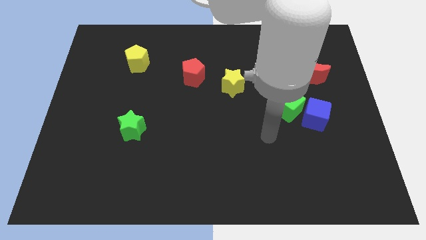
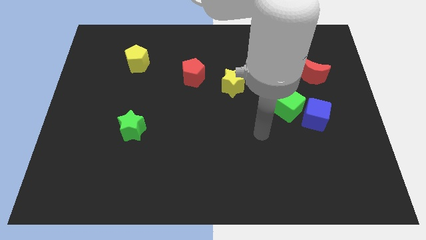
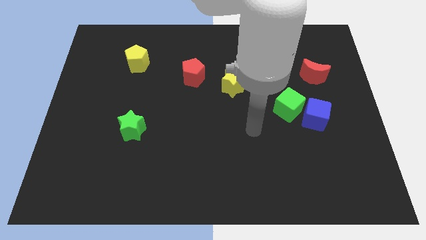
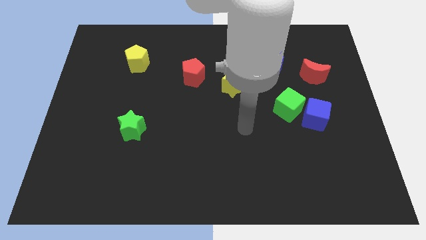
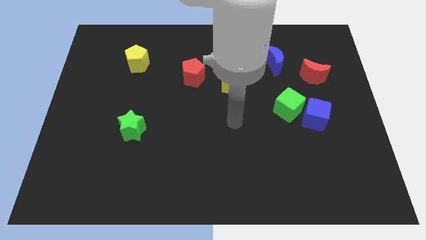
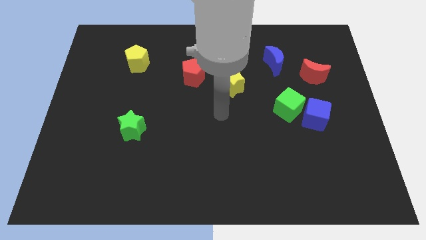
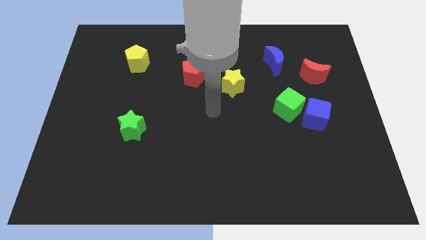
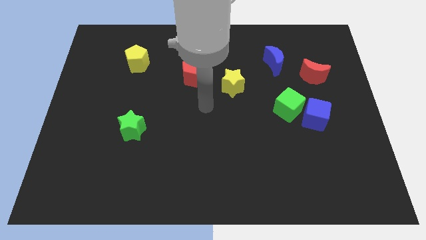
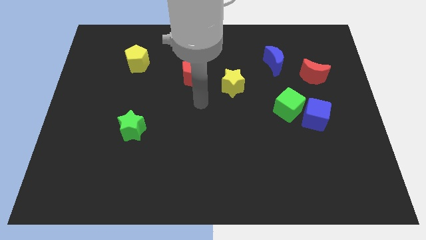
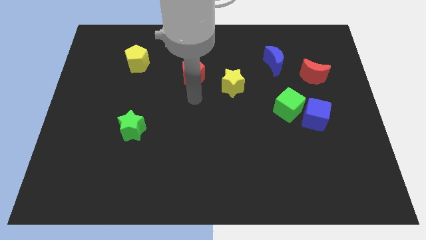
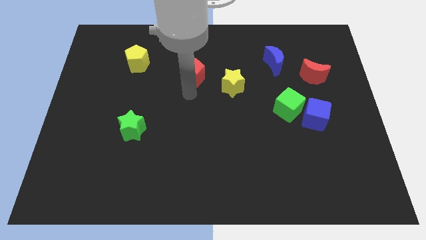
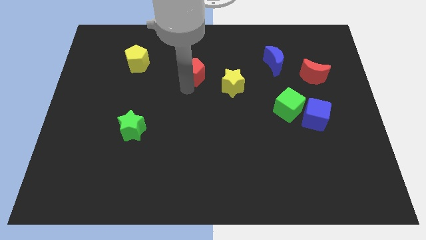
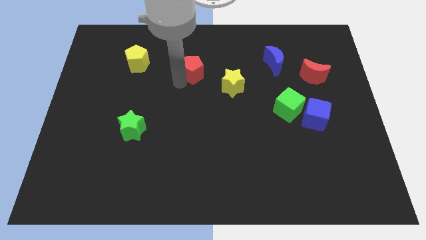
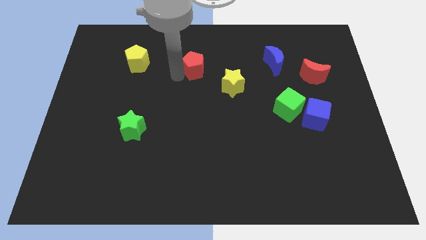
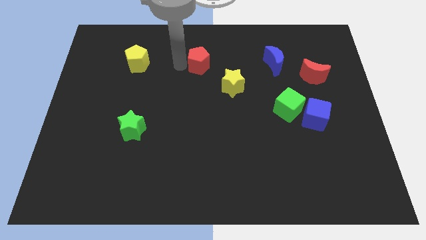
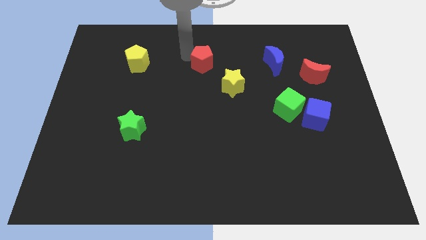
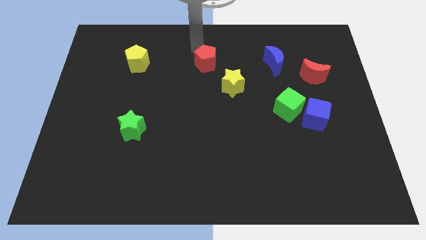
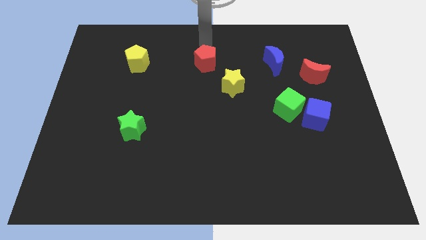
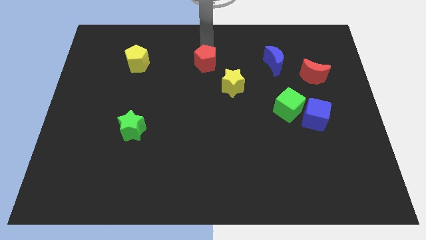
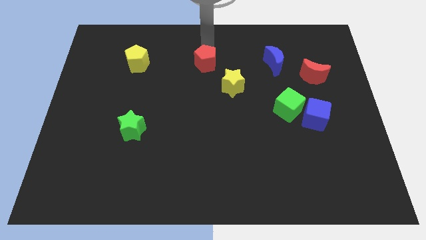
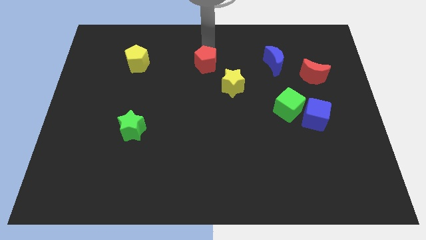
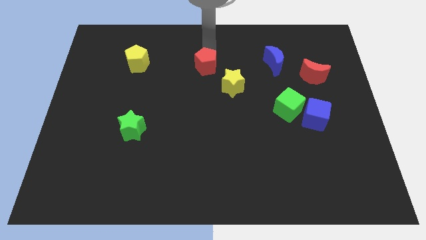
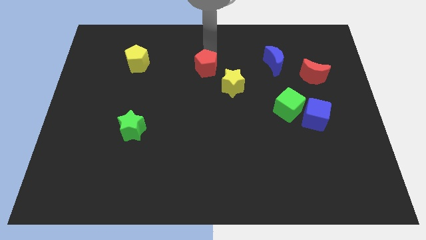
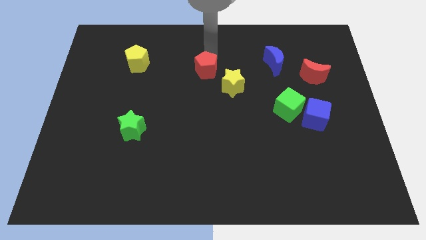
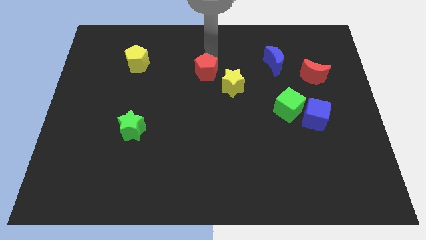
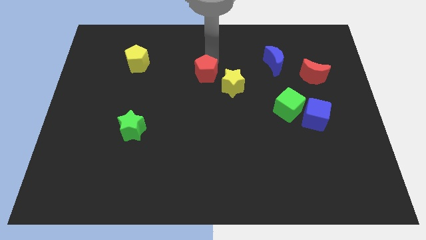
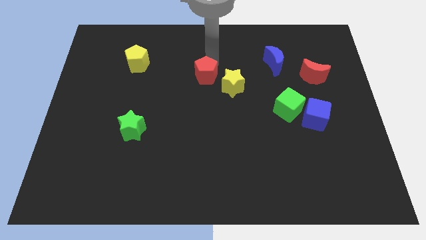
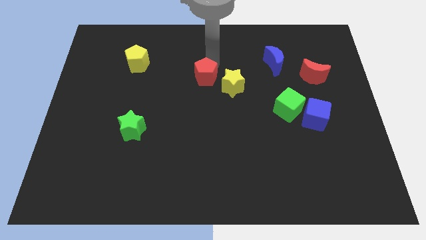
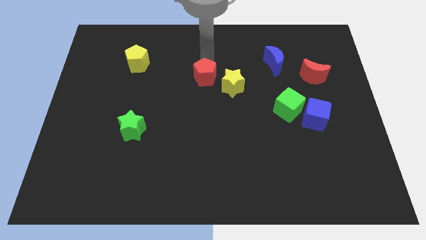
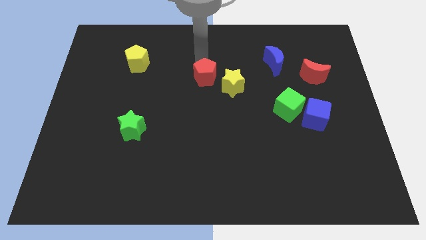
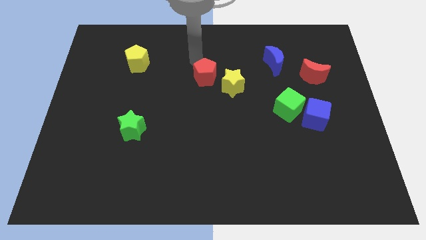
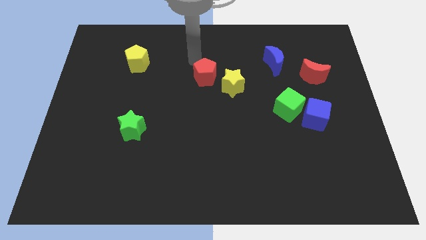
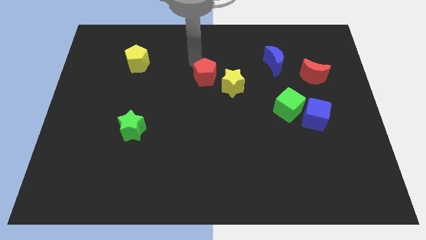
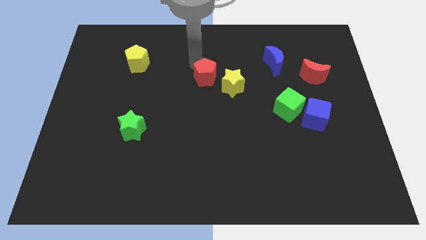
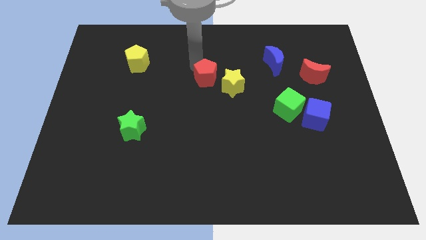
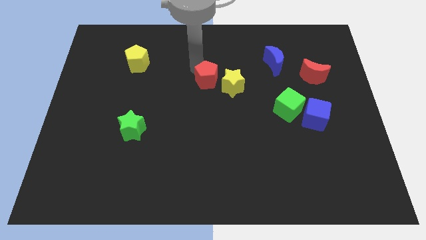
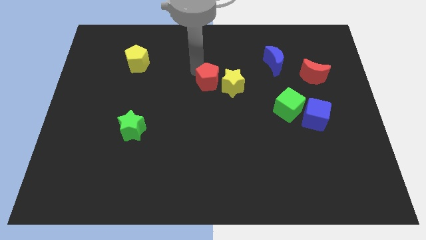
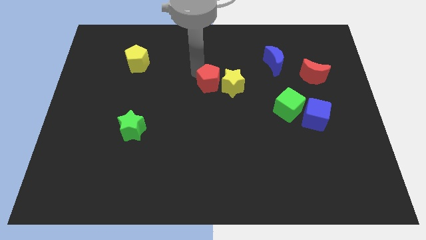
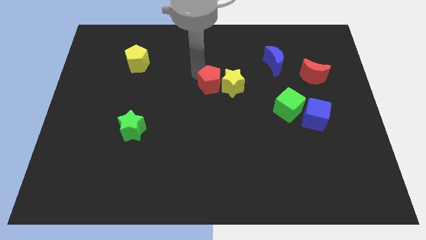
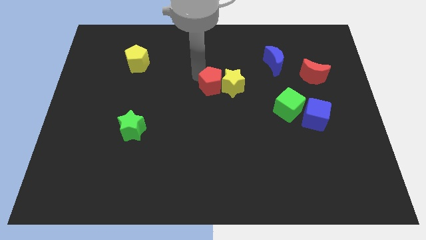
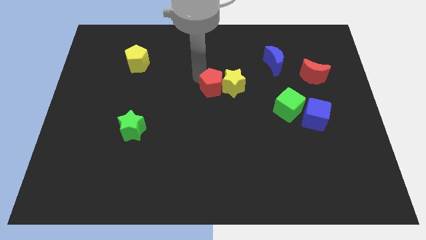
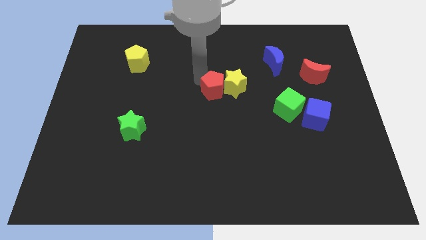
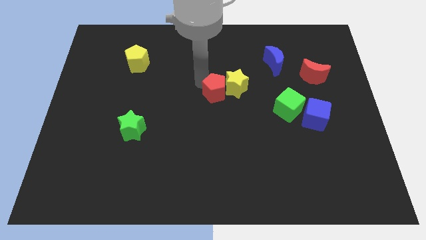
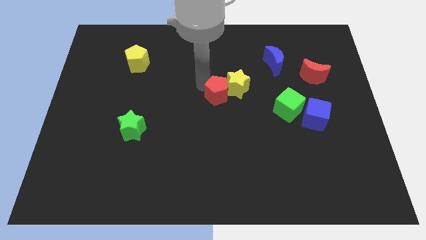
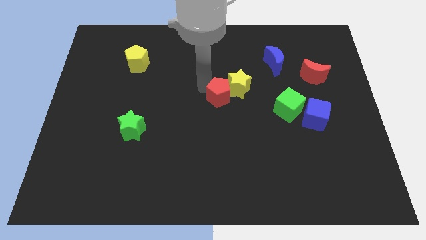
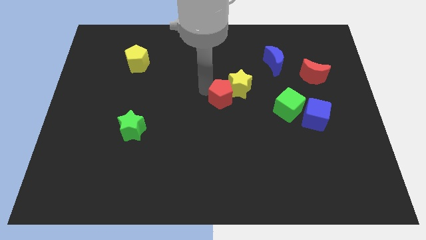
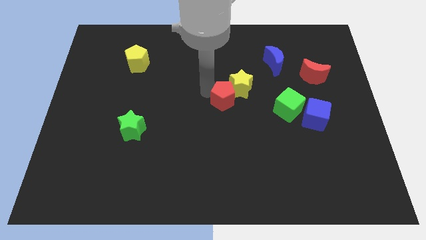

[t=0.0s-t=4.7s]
move the red pentagon to the left side of the green cube

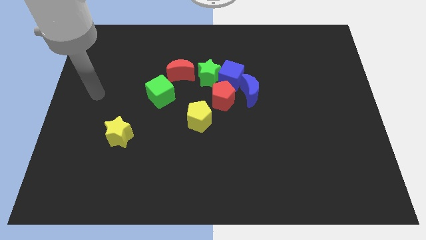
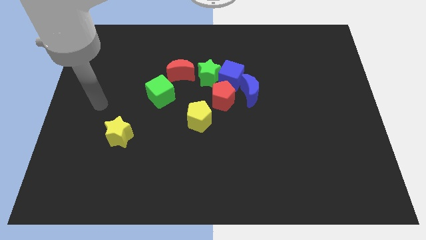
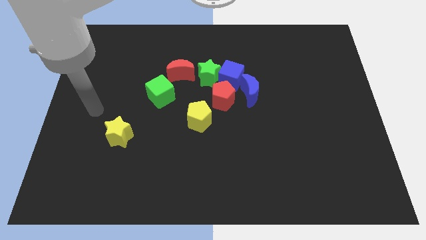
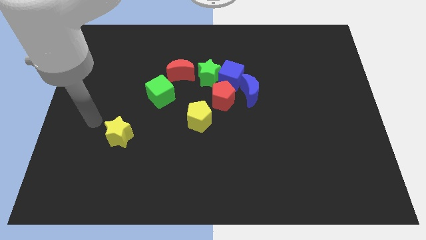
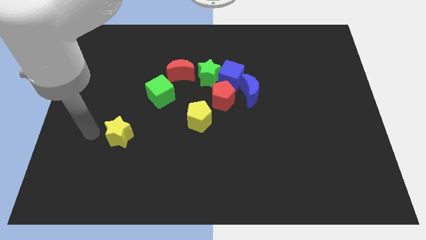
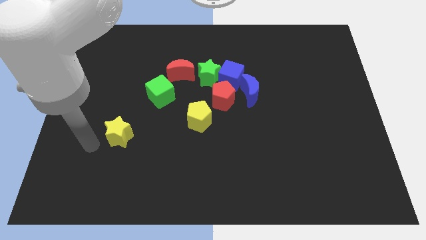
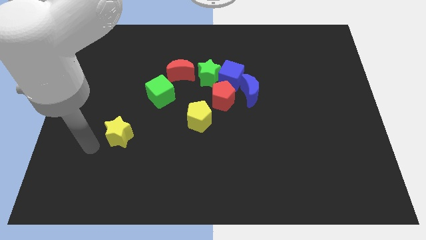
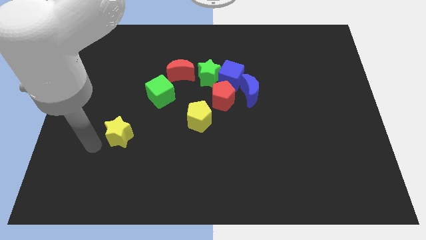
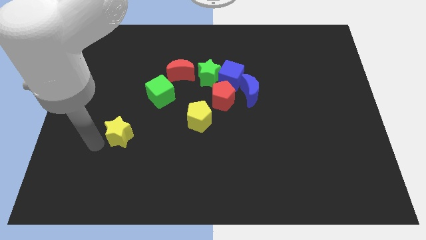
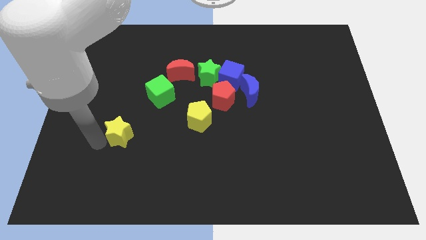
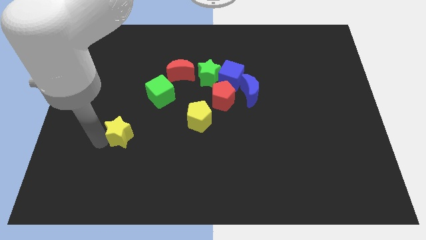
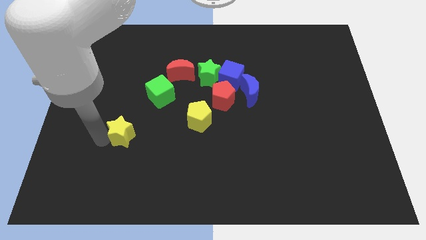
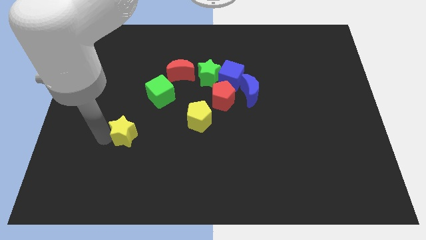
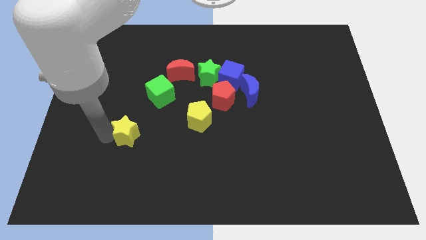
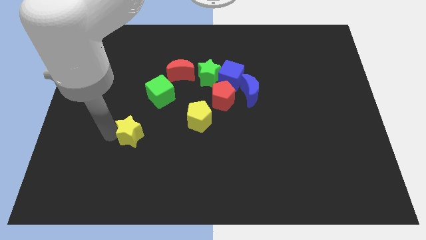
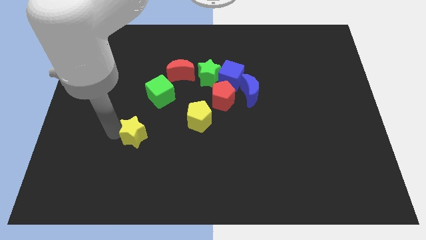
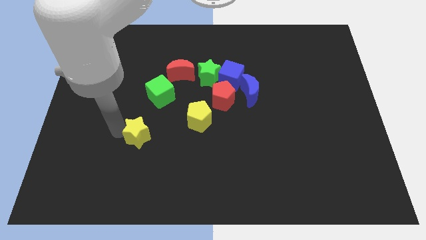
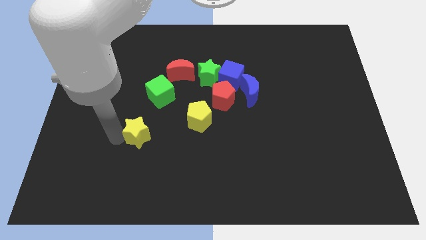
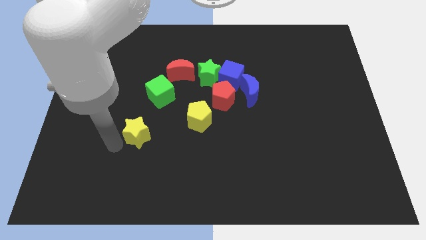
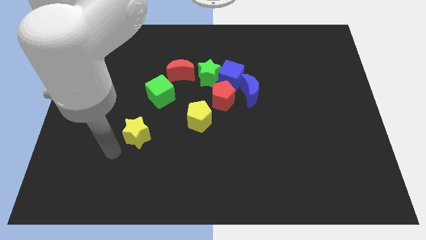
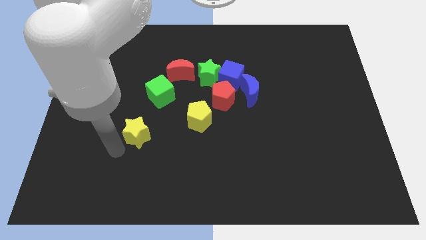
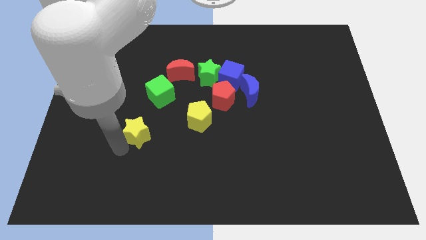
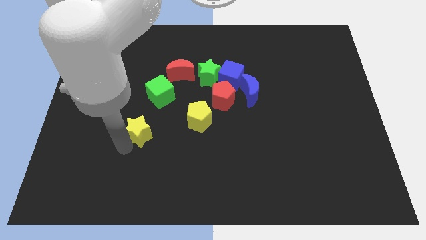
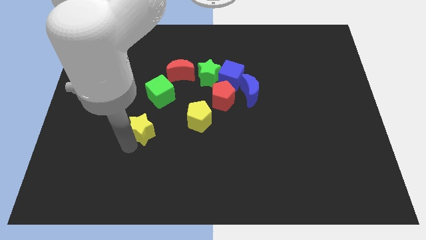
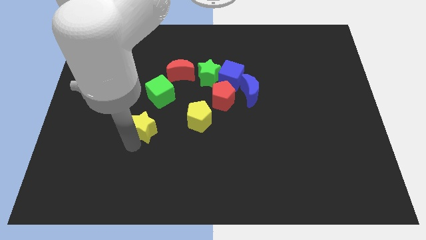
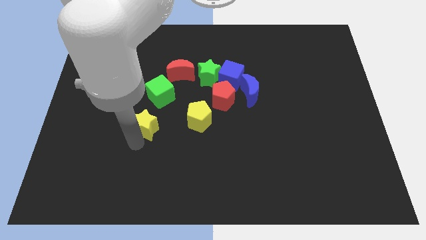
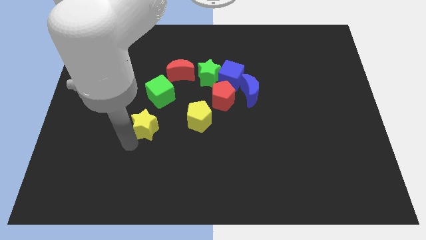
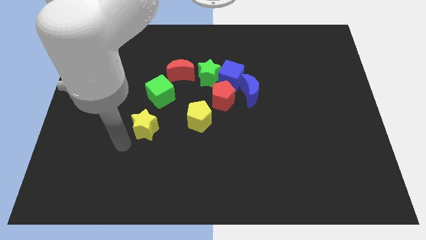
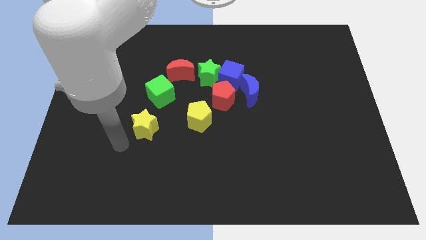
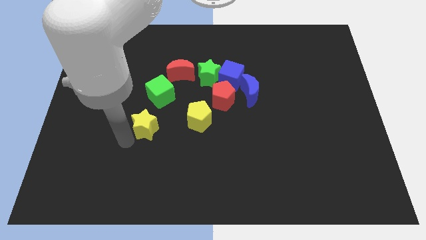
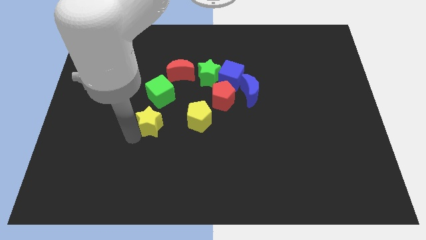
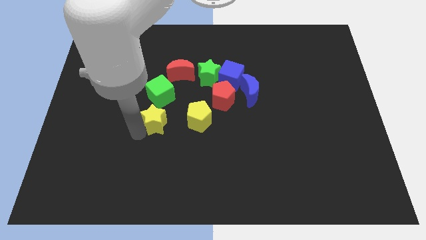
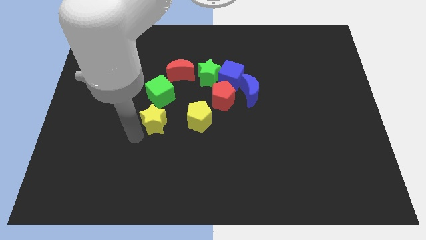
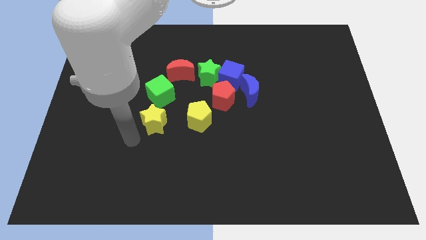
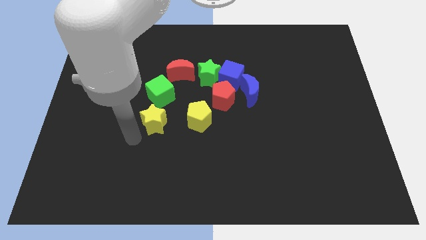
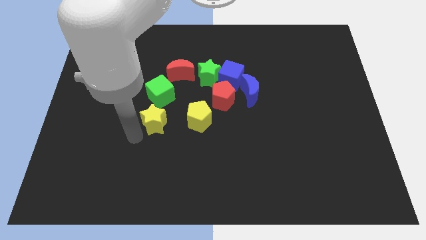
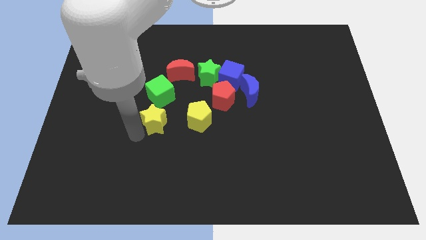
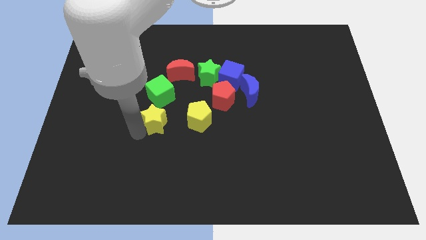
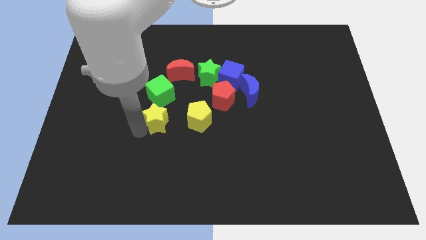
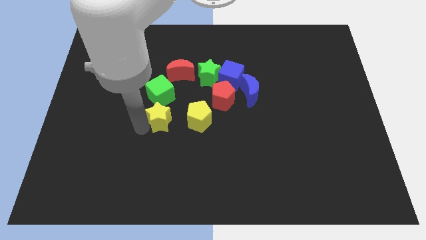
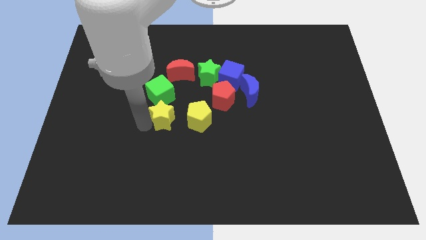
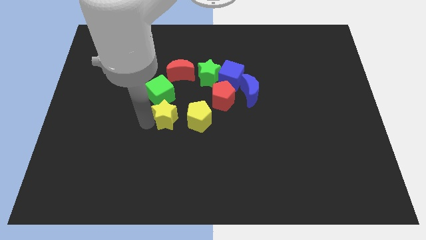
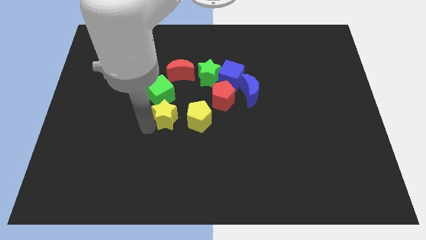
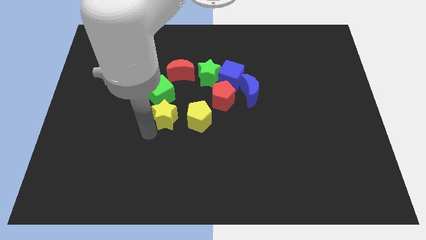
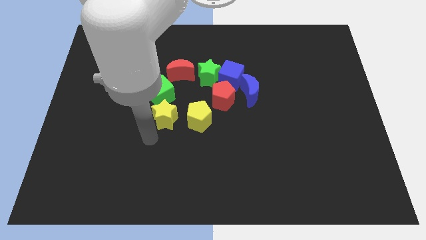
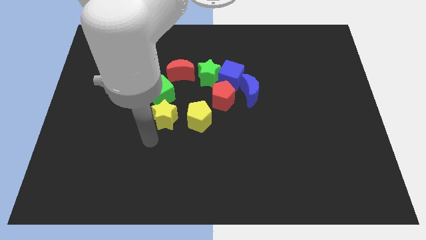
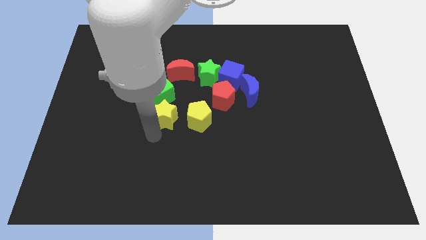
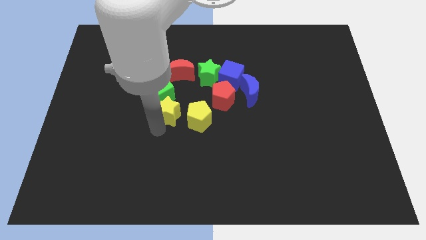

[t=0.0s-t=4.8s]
push the yellow star left of the red pentagon
